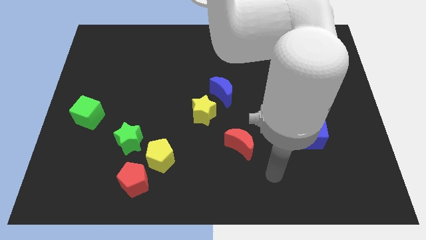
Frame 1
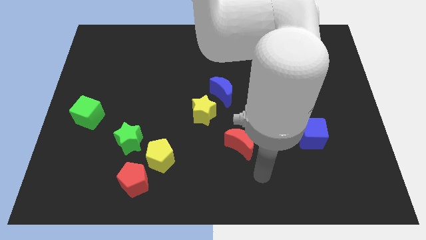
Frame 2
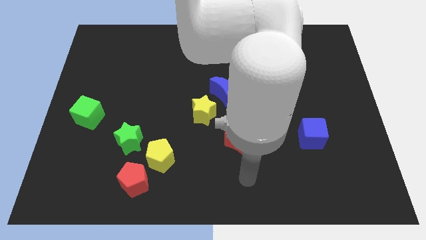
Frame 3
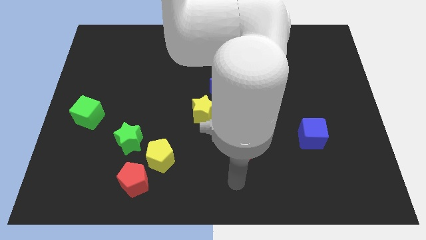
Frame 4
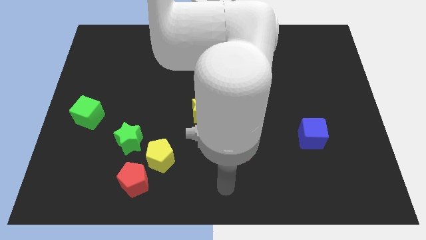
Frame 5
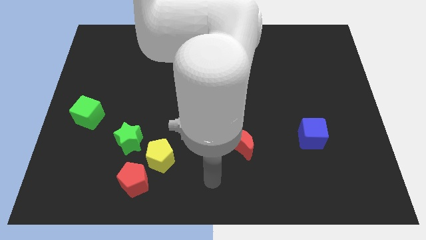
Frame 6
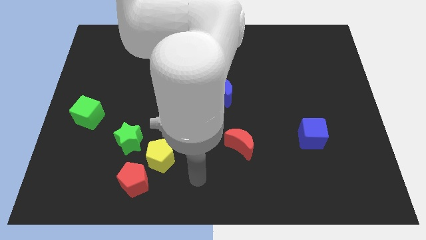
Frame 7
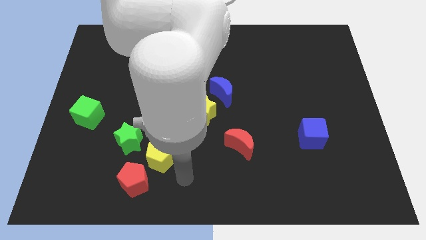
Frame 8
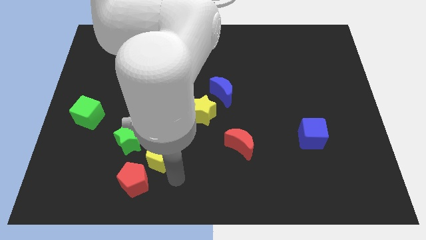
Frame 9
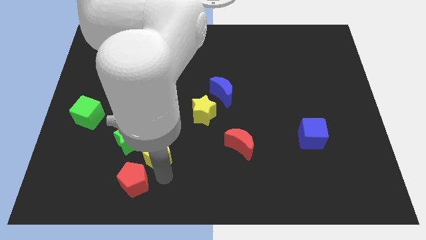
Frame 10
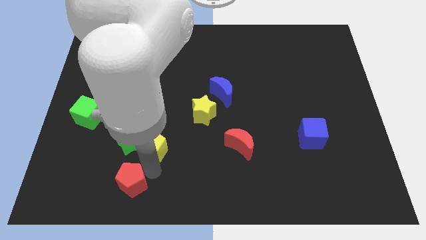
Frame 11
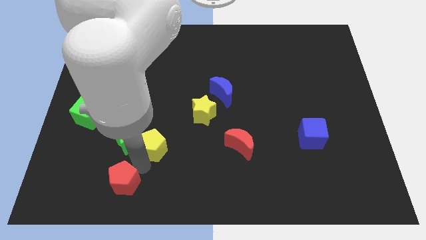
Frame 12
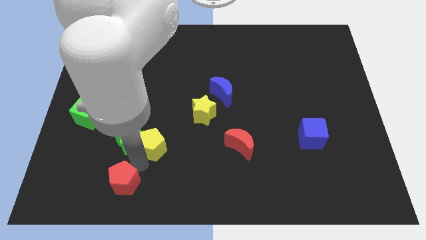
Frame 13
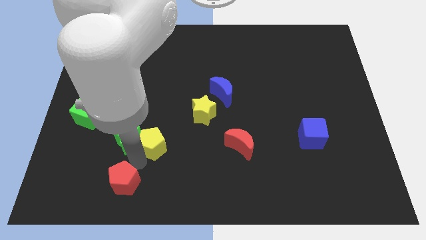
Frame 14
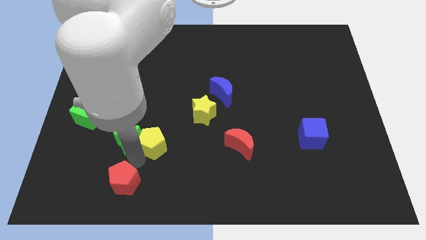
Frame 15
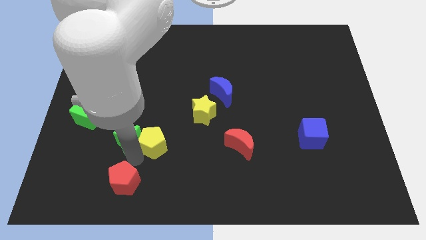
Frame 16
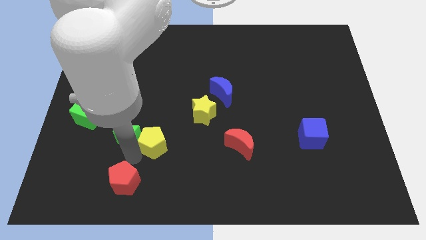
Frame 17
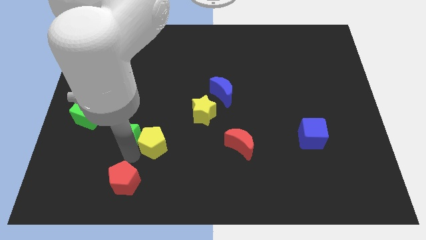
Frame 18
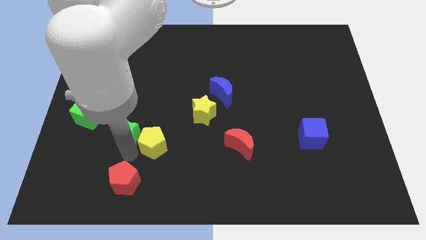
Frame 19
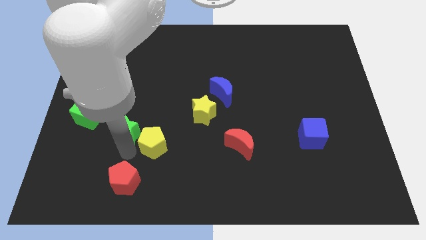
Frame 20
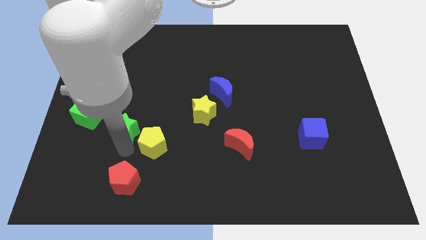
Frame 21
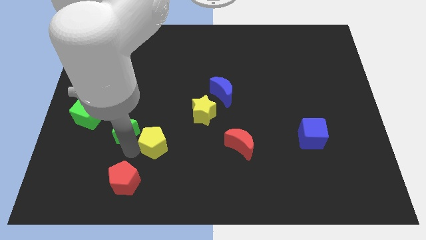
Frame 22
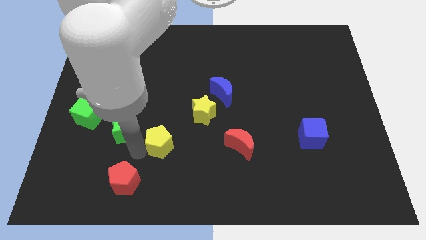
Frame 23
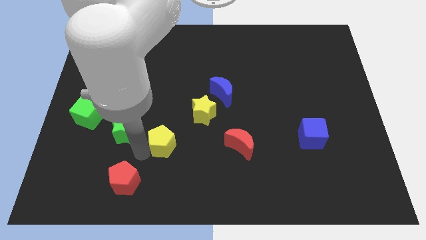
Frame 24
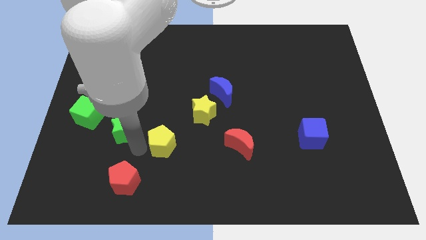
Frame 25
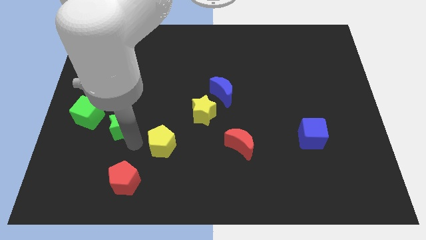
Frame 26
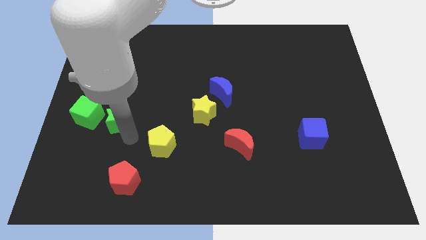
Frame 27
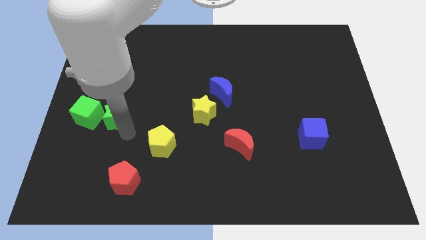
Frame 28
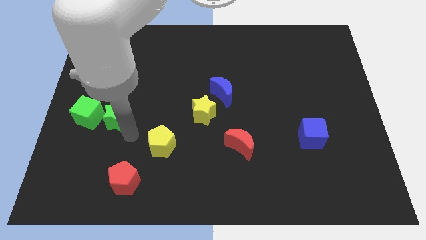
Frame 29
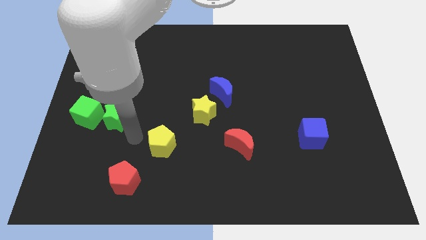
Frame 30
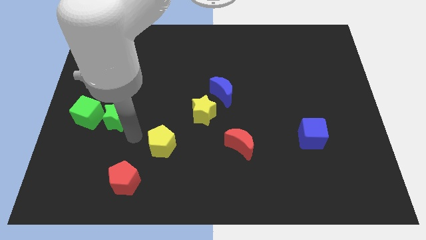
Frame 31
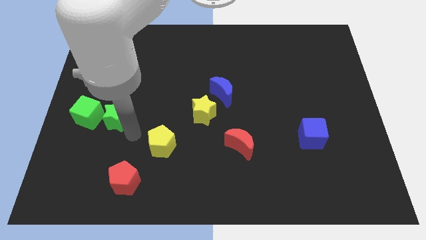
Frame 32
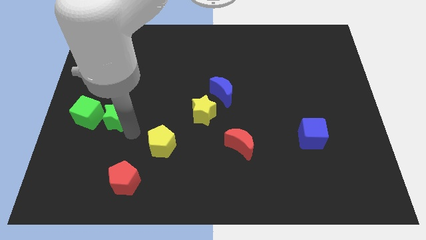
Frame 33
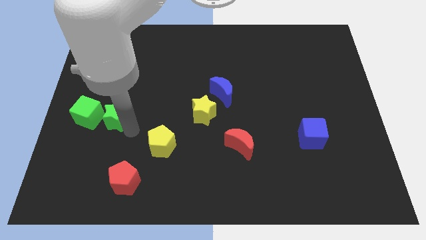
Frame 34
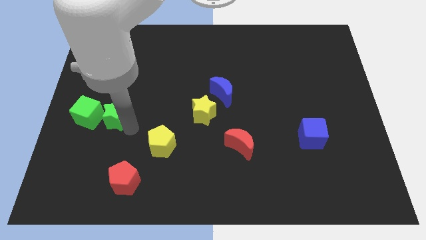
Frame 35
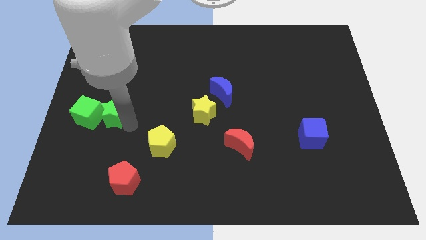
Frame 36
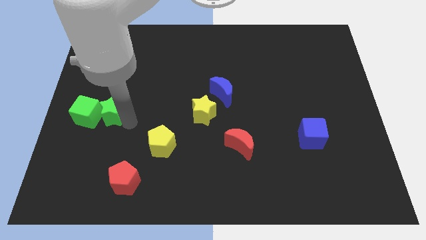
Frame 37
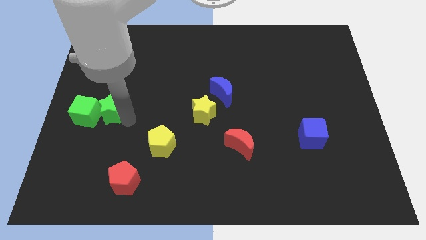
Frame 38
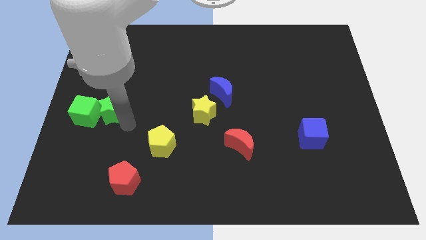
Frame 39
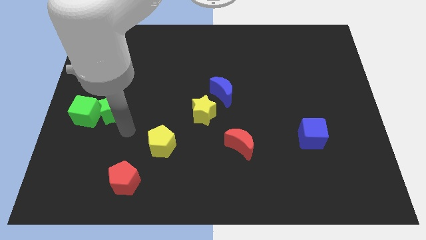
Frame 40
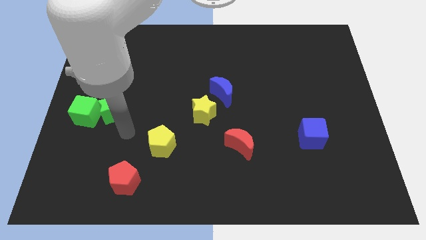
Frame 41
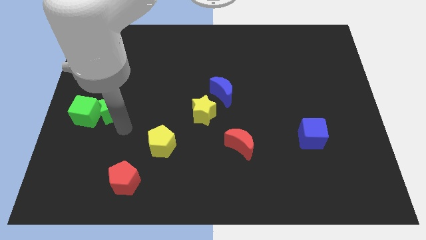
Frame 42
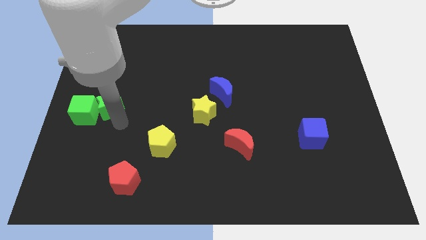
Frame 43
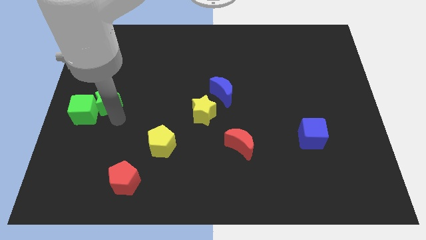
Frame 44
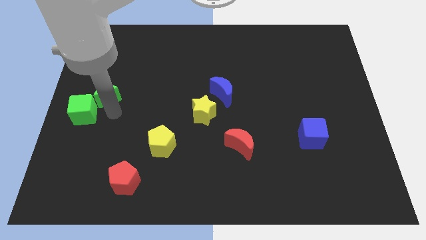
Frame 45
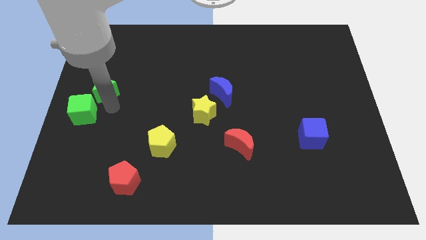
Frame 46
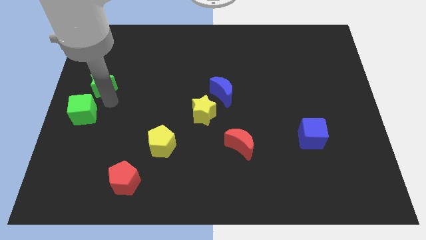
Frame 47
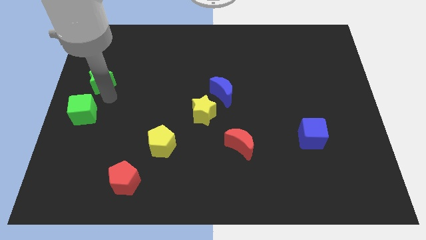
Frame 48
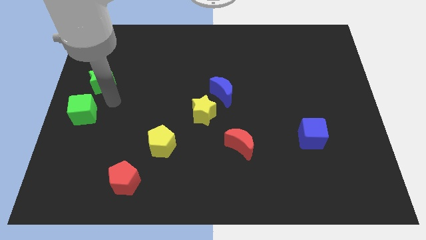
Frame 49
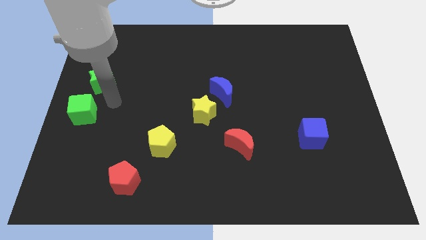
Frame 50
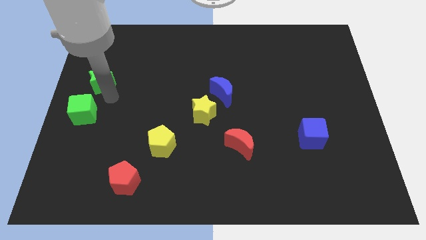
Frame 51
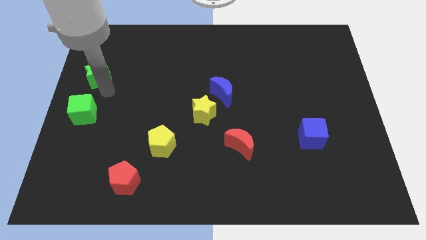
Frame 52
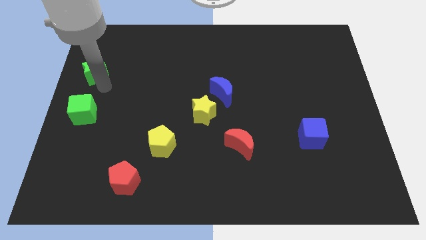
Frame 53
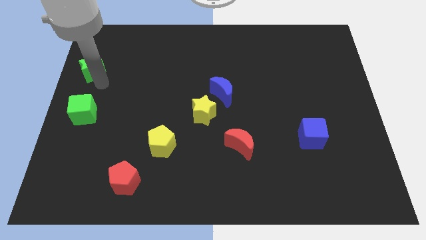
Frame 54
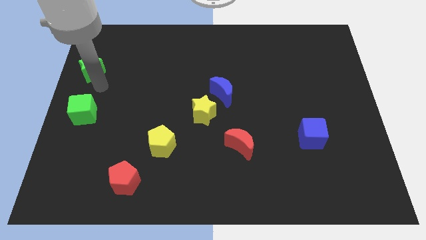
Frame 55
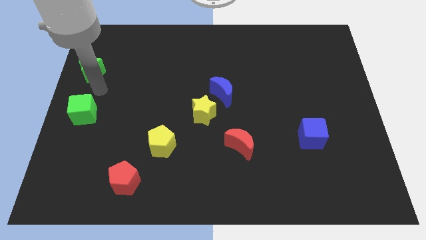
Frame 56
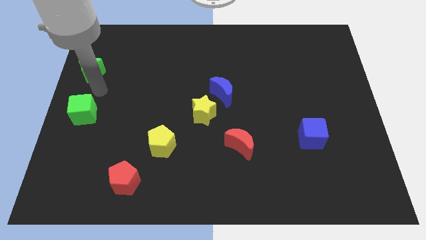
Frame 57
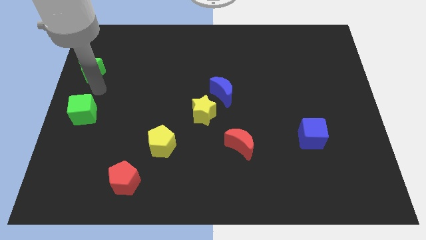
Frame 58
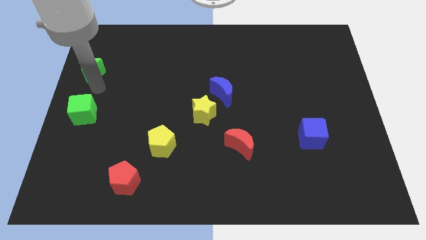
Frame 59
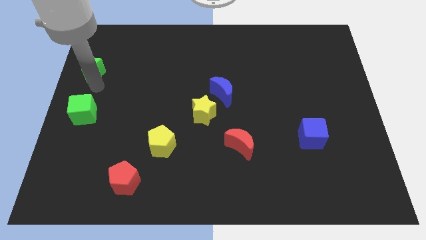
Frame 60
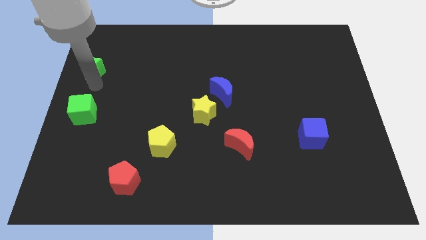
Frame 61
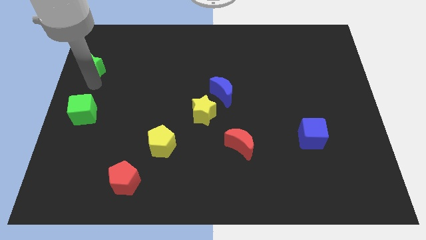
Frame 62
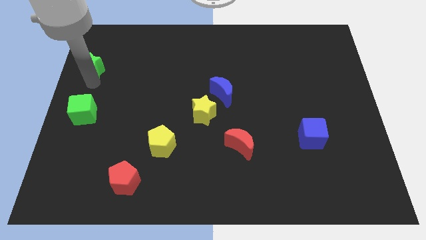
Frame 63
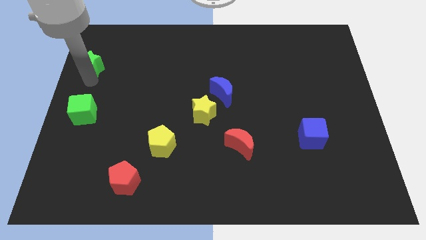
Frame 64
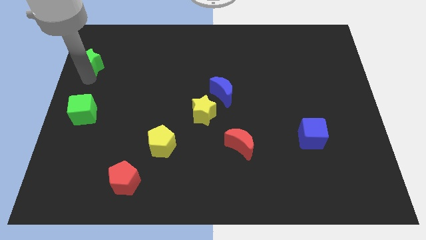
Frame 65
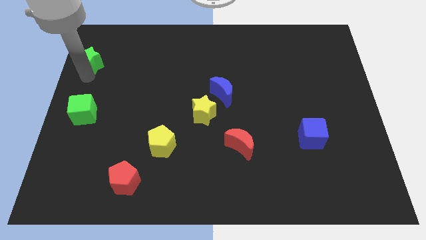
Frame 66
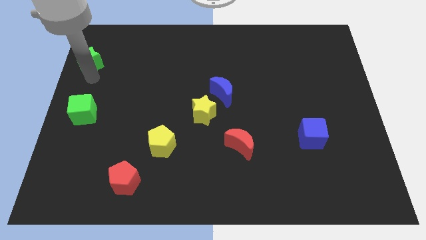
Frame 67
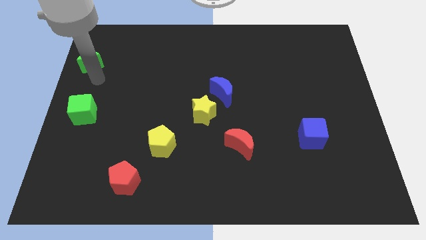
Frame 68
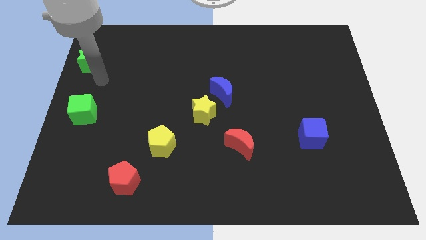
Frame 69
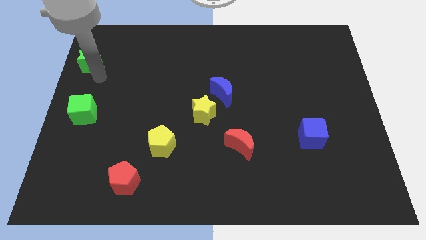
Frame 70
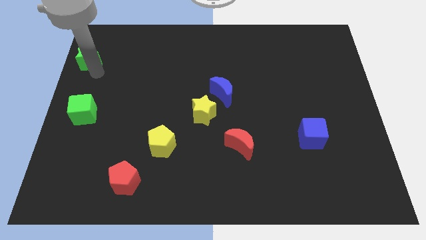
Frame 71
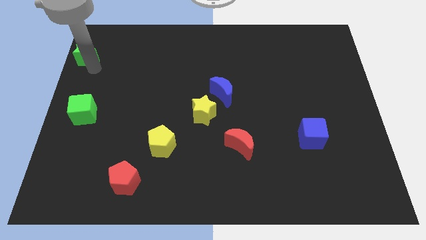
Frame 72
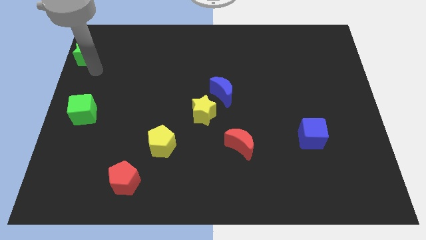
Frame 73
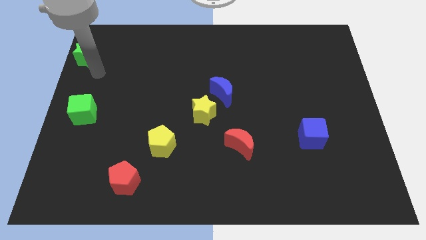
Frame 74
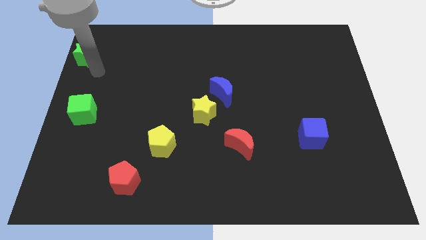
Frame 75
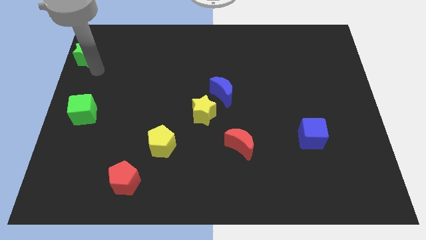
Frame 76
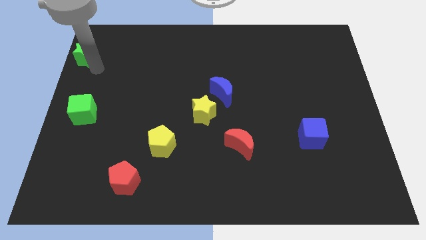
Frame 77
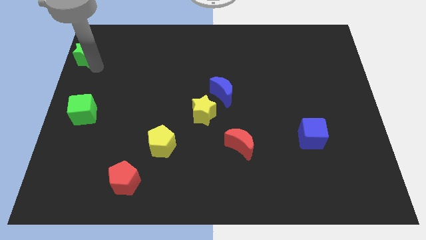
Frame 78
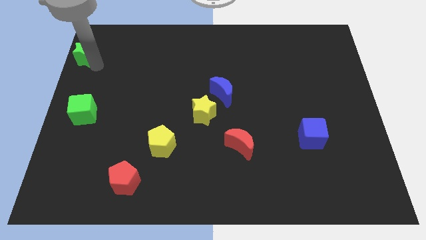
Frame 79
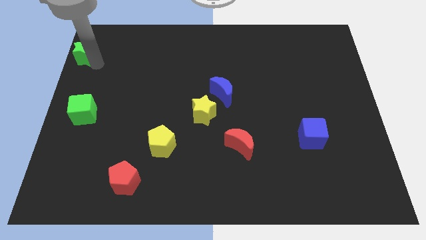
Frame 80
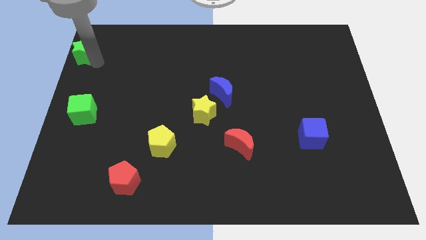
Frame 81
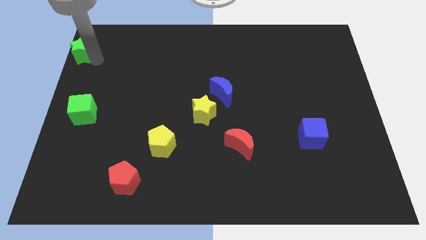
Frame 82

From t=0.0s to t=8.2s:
move the green star to the top left corner
